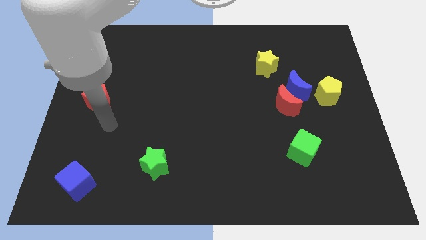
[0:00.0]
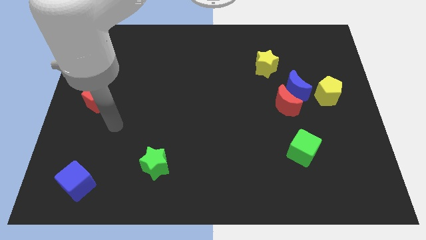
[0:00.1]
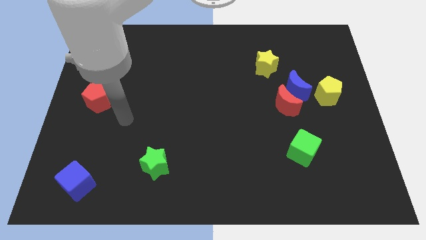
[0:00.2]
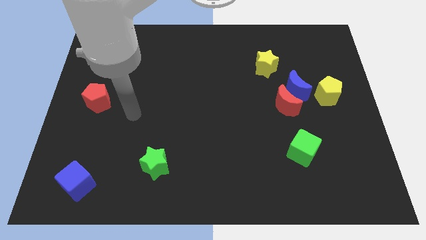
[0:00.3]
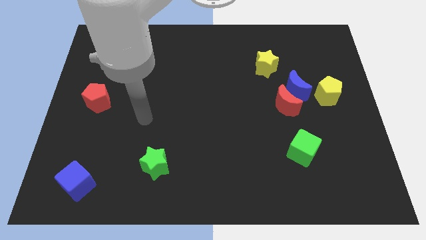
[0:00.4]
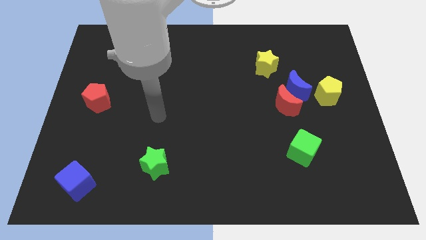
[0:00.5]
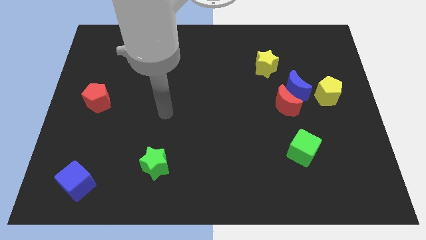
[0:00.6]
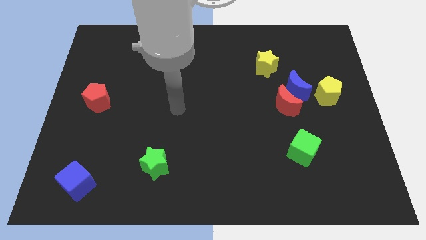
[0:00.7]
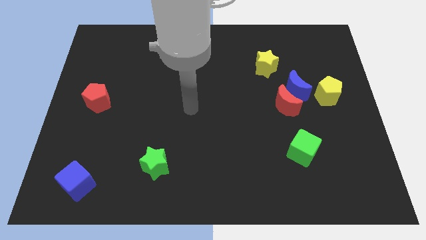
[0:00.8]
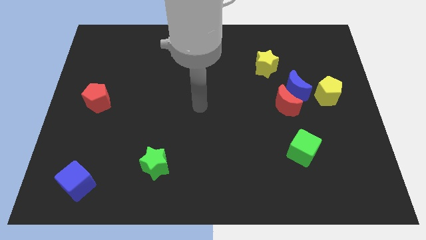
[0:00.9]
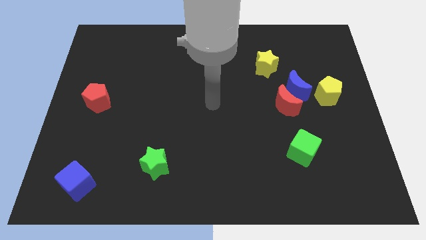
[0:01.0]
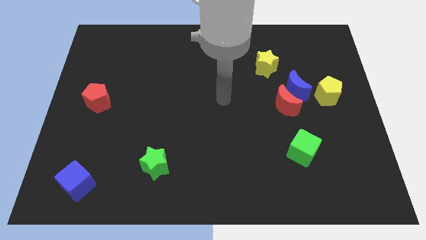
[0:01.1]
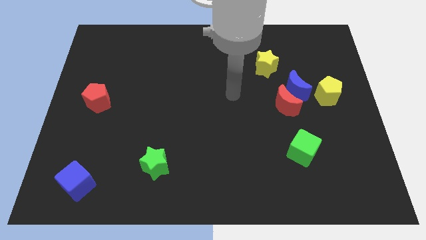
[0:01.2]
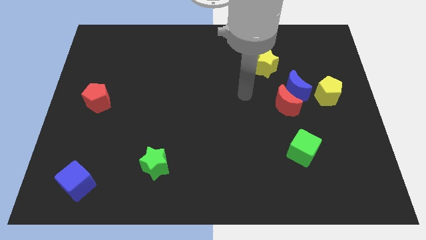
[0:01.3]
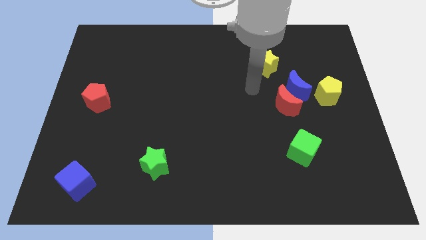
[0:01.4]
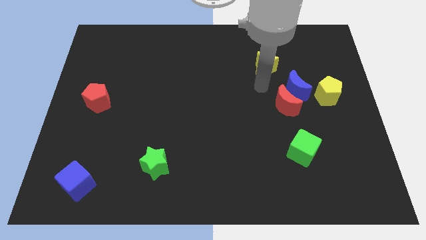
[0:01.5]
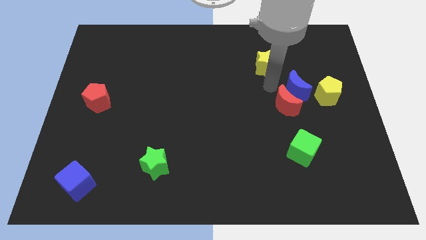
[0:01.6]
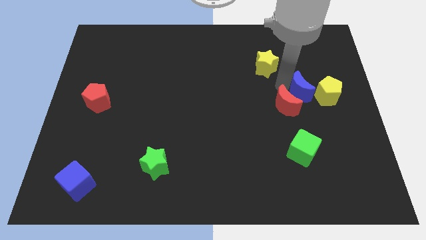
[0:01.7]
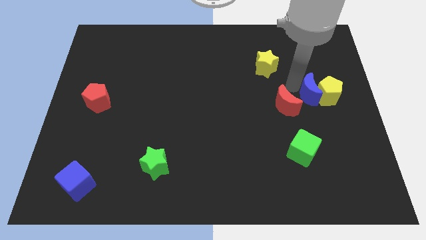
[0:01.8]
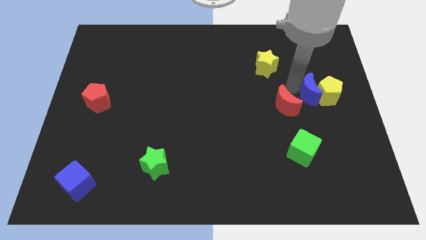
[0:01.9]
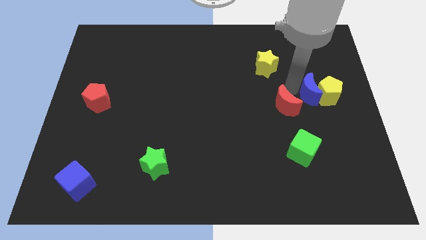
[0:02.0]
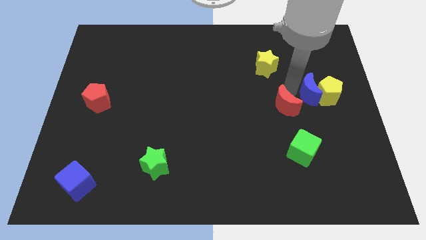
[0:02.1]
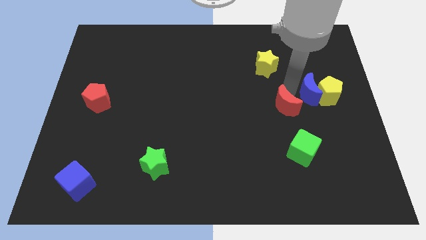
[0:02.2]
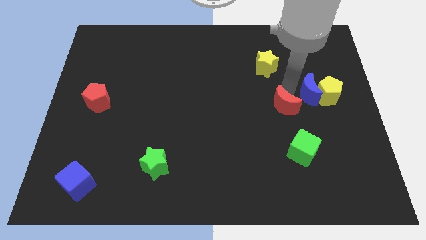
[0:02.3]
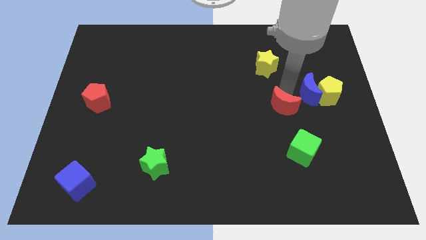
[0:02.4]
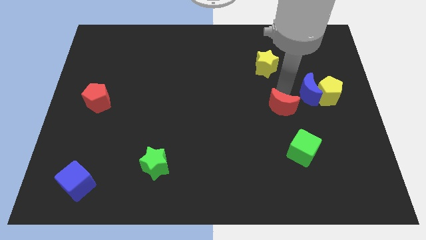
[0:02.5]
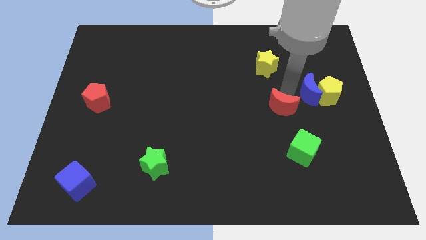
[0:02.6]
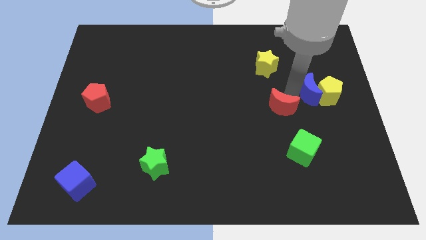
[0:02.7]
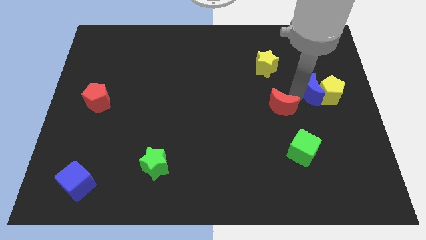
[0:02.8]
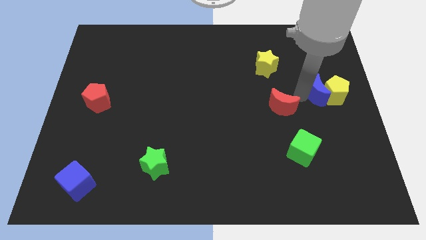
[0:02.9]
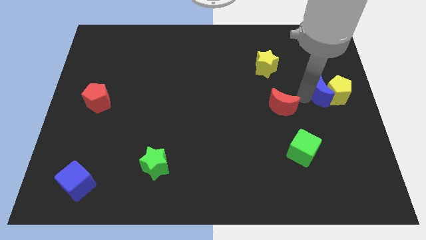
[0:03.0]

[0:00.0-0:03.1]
move the red moon away from the blue moon

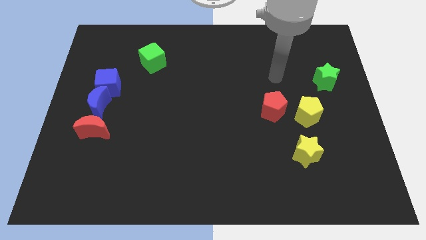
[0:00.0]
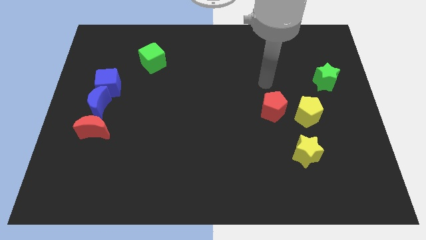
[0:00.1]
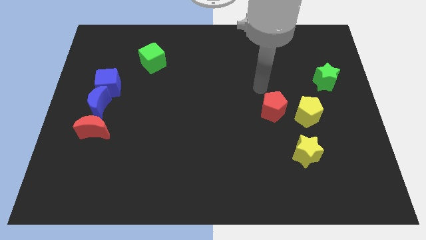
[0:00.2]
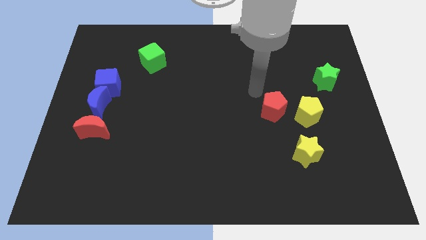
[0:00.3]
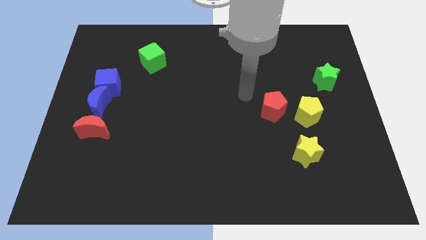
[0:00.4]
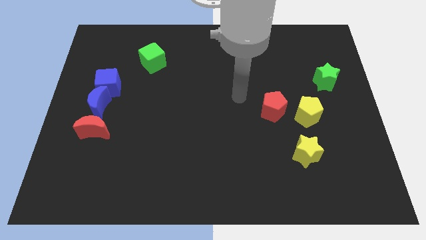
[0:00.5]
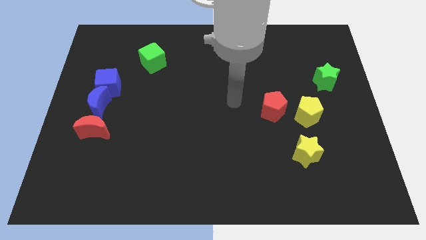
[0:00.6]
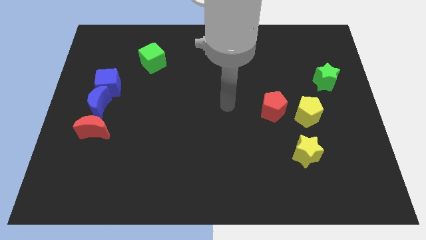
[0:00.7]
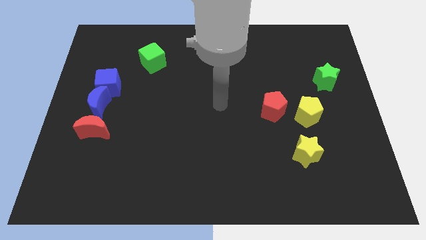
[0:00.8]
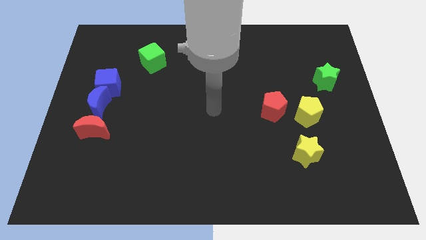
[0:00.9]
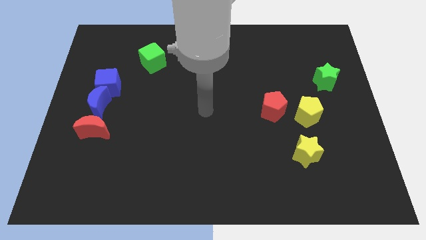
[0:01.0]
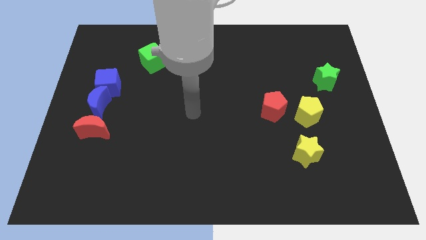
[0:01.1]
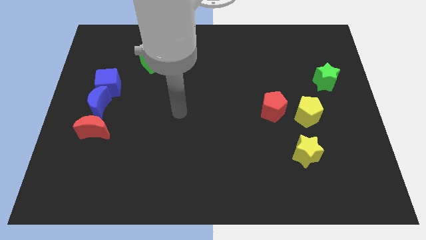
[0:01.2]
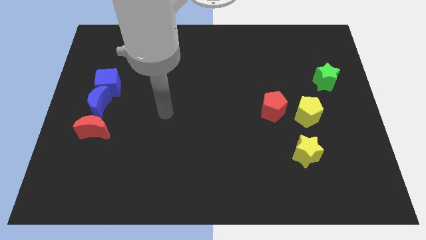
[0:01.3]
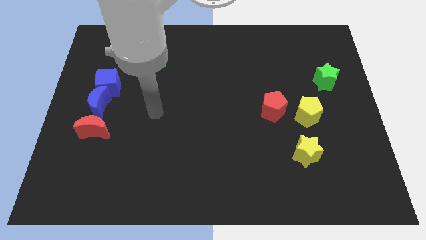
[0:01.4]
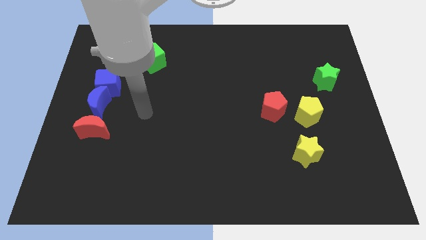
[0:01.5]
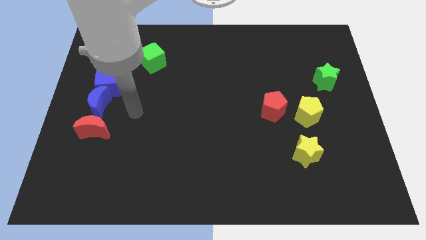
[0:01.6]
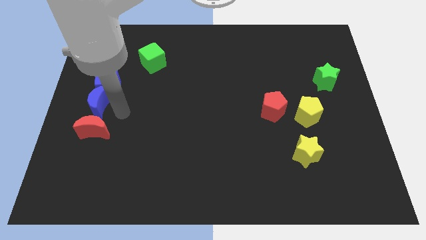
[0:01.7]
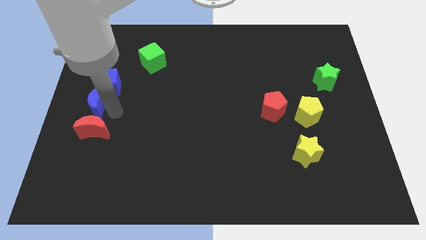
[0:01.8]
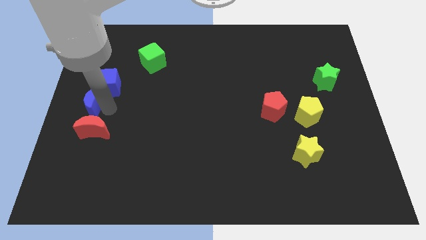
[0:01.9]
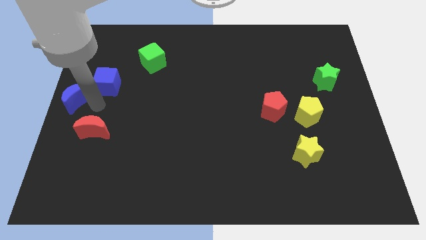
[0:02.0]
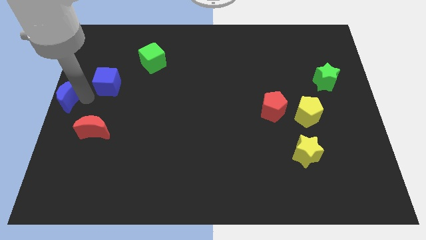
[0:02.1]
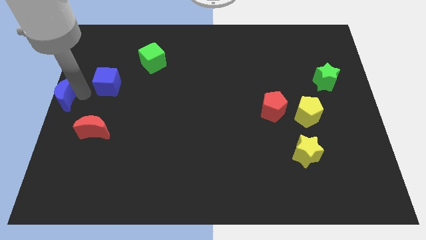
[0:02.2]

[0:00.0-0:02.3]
move the blue cube away from the blue moon

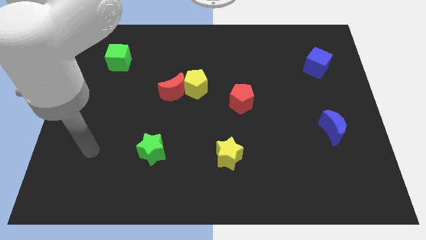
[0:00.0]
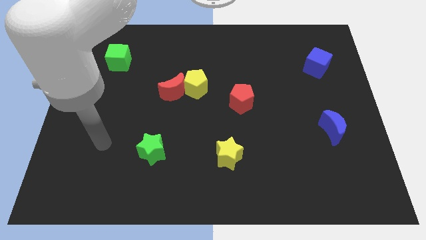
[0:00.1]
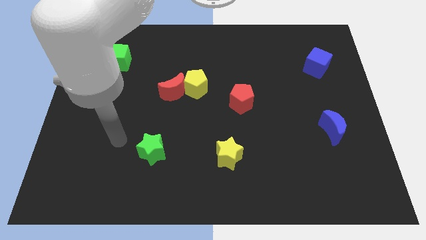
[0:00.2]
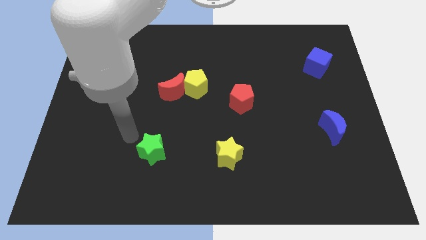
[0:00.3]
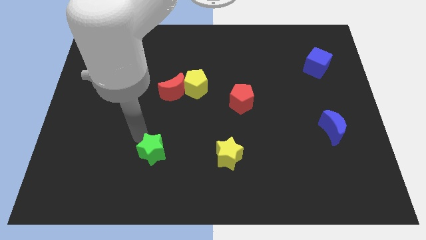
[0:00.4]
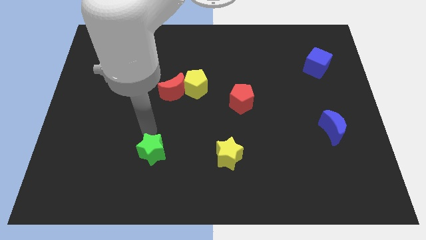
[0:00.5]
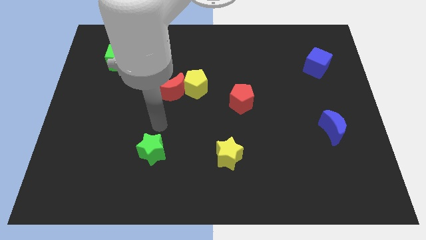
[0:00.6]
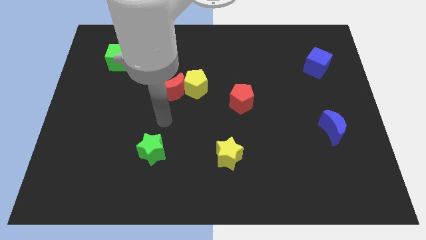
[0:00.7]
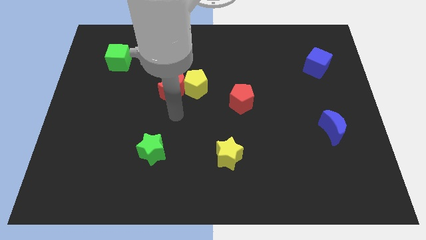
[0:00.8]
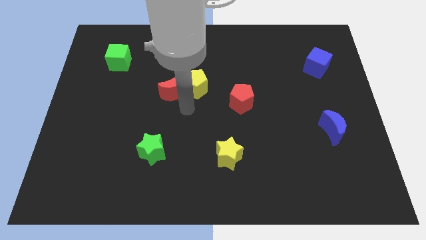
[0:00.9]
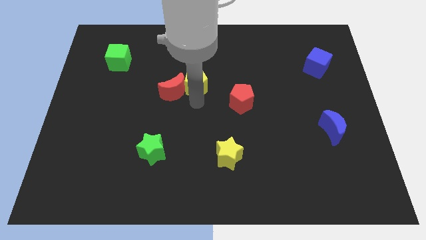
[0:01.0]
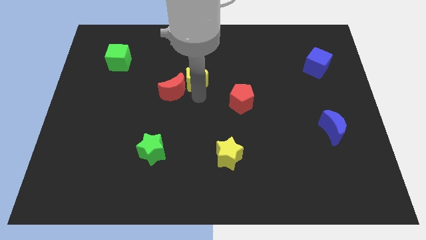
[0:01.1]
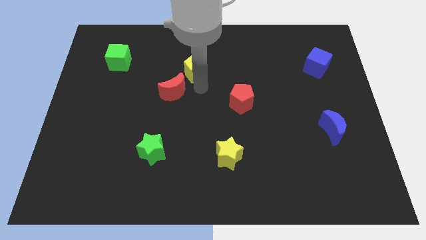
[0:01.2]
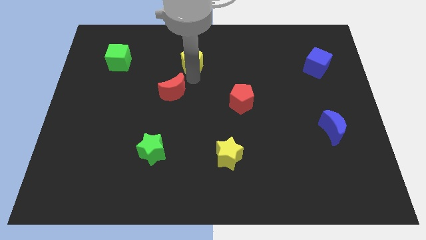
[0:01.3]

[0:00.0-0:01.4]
pull the red moon apart from the yellow pentagon

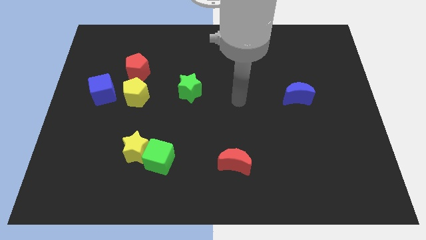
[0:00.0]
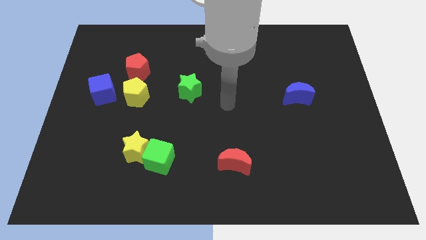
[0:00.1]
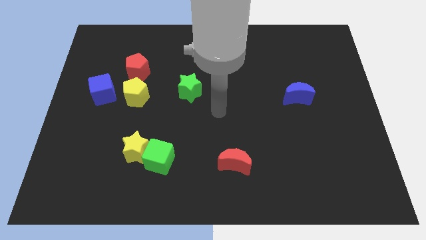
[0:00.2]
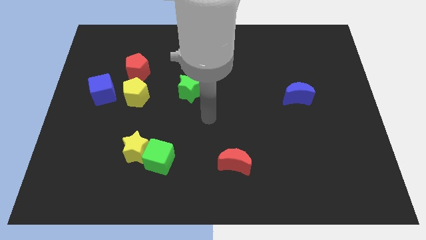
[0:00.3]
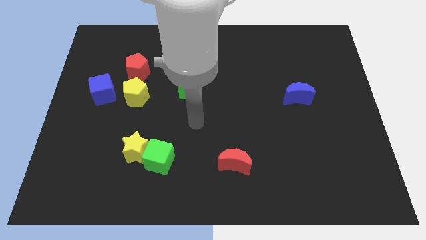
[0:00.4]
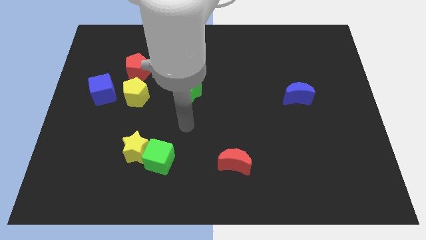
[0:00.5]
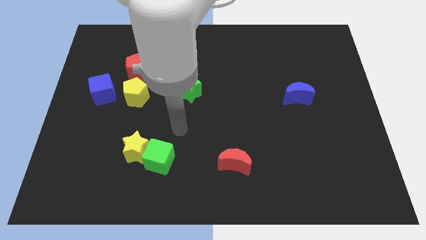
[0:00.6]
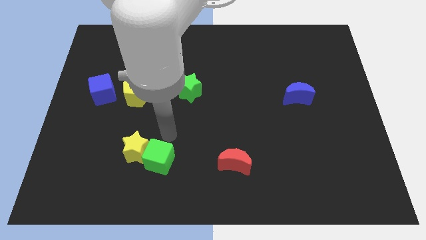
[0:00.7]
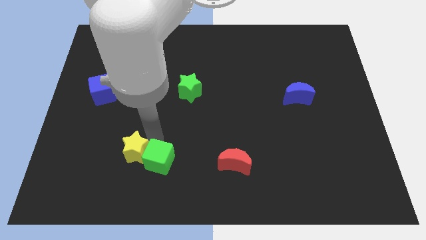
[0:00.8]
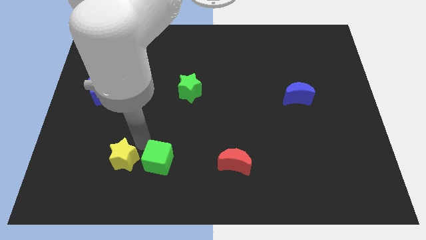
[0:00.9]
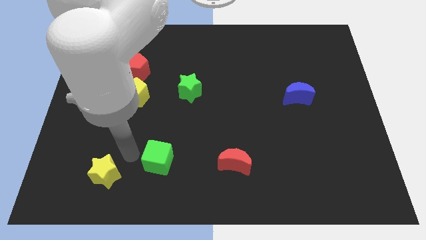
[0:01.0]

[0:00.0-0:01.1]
pull the green cube apart from the yellow star

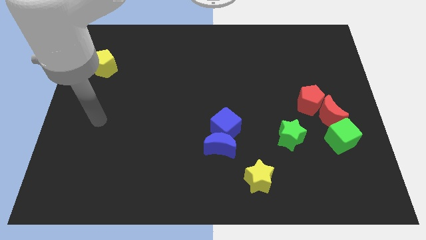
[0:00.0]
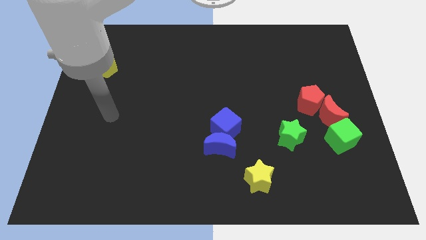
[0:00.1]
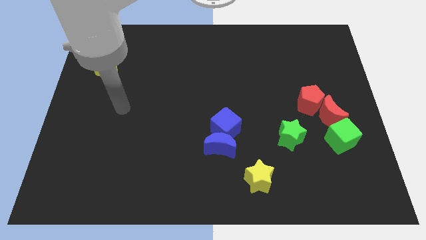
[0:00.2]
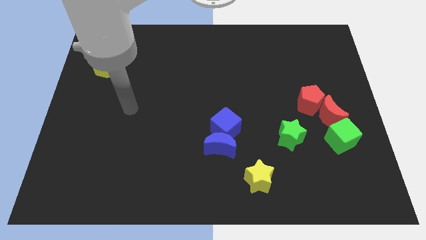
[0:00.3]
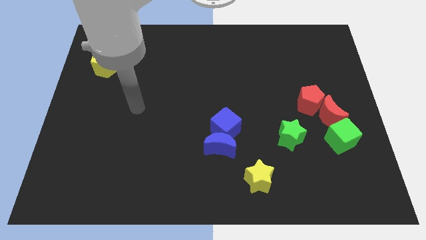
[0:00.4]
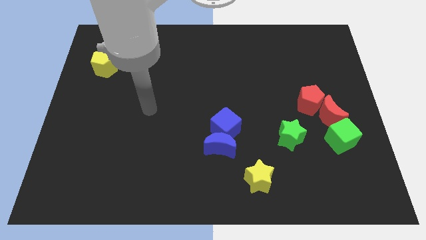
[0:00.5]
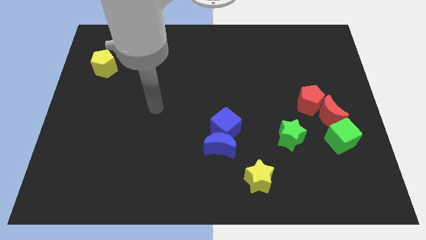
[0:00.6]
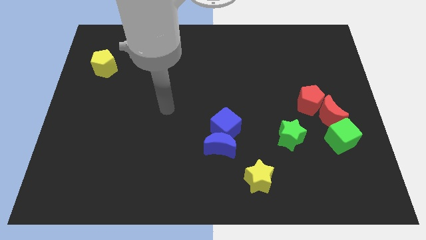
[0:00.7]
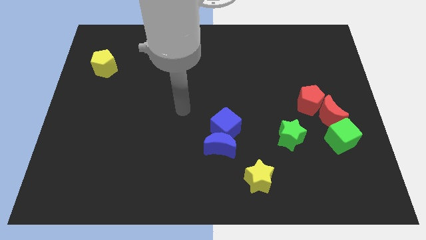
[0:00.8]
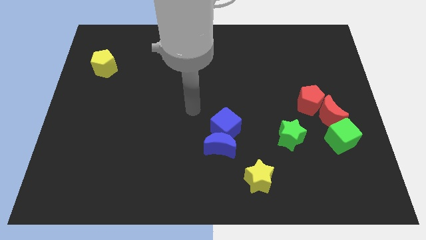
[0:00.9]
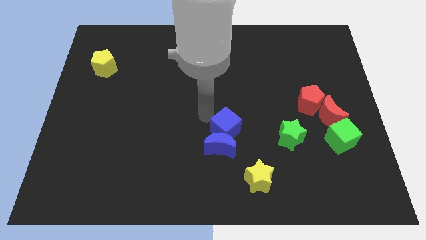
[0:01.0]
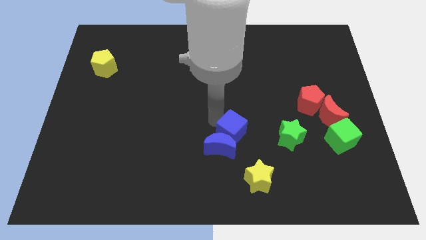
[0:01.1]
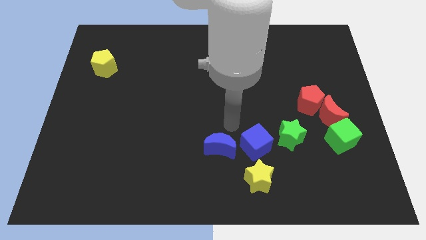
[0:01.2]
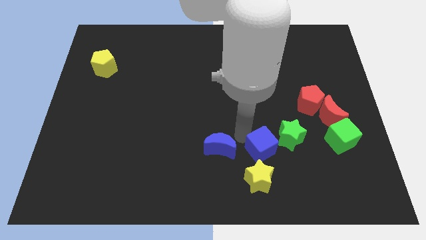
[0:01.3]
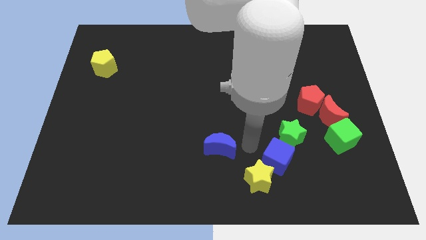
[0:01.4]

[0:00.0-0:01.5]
separate the blue moon from the blue cube
